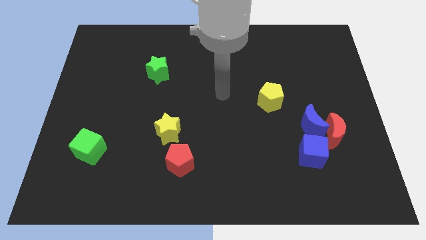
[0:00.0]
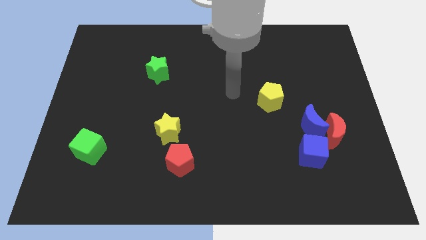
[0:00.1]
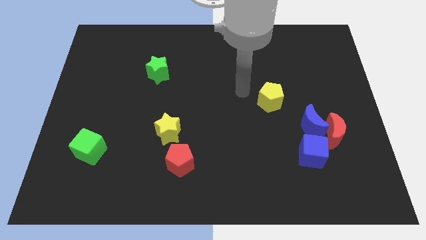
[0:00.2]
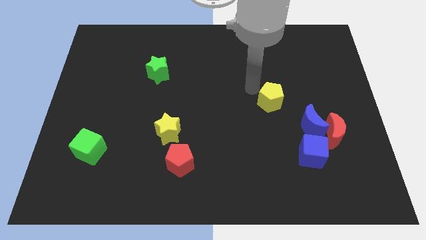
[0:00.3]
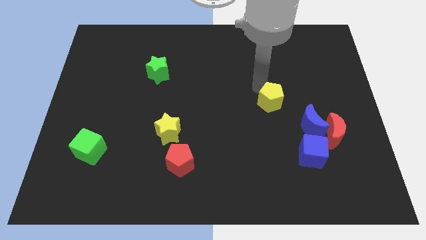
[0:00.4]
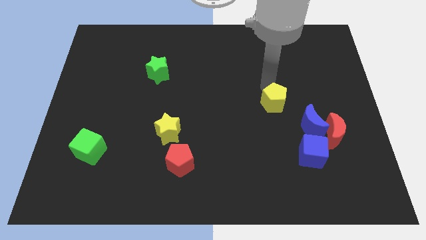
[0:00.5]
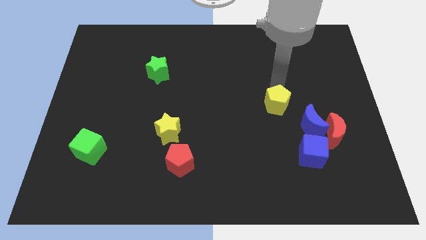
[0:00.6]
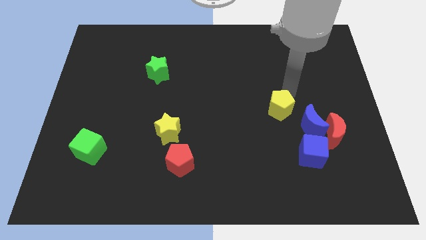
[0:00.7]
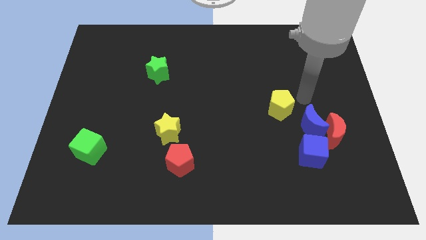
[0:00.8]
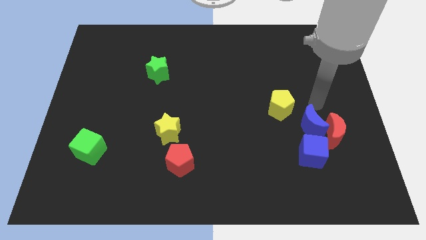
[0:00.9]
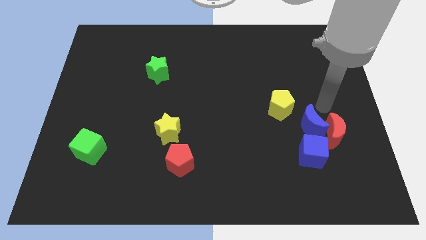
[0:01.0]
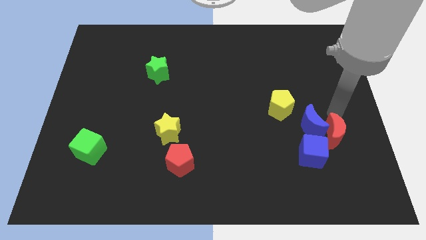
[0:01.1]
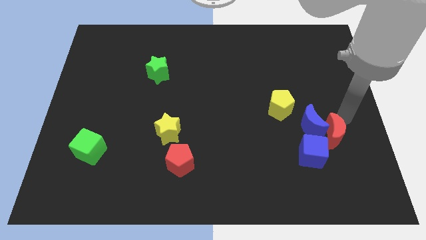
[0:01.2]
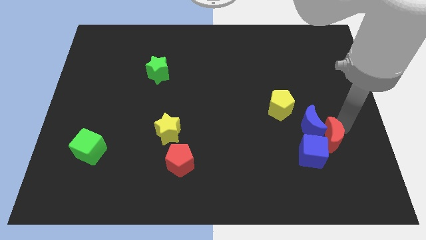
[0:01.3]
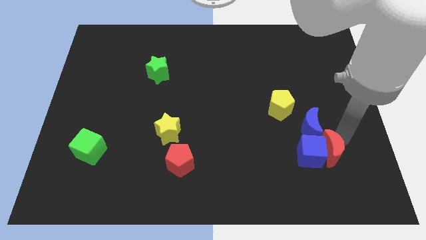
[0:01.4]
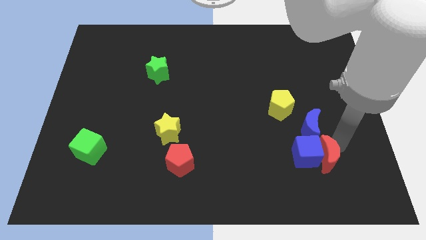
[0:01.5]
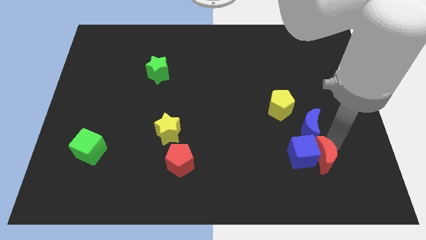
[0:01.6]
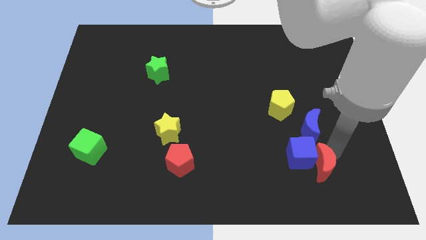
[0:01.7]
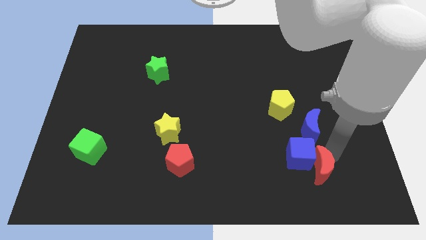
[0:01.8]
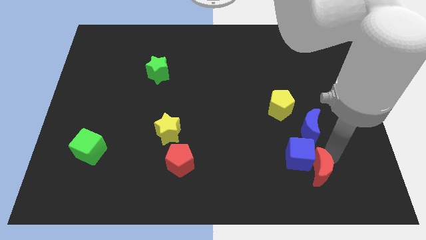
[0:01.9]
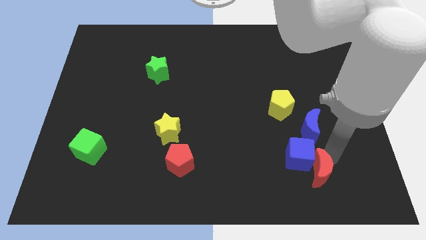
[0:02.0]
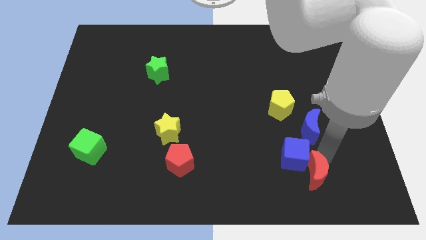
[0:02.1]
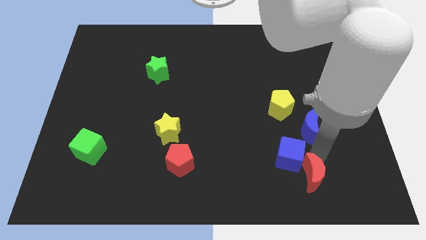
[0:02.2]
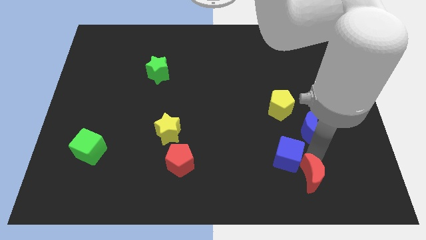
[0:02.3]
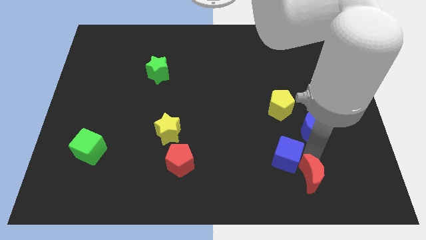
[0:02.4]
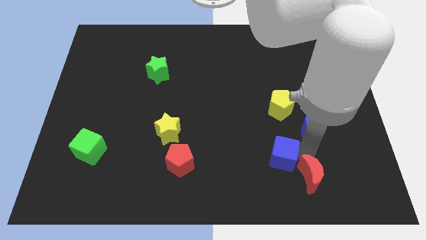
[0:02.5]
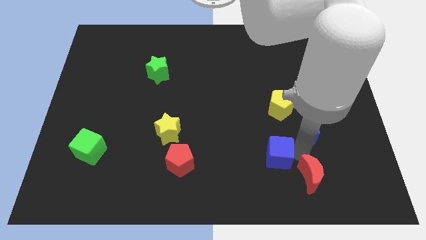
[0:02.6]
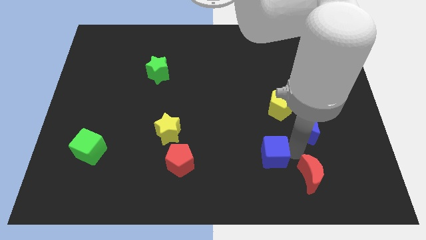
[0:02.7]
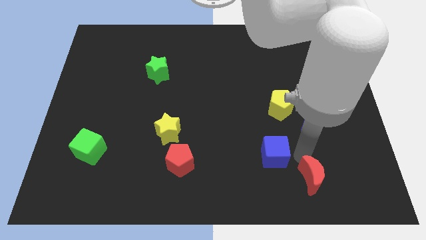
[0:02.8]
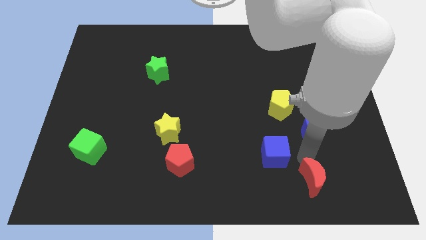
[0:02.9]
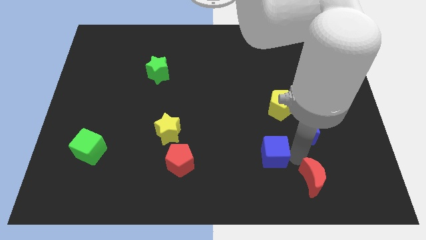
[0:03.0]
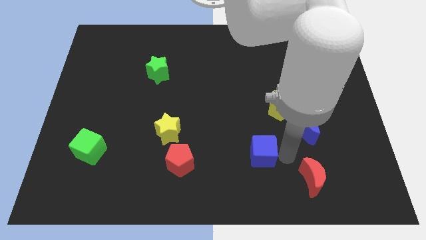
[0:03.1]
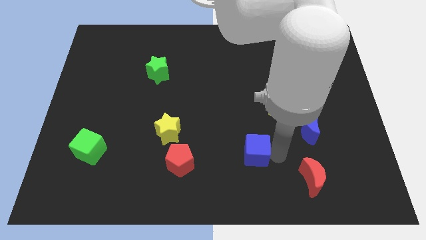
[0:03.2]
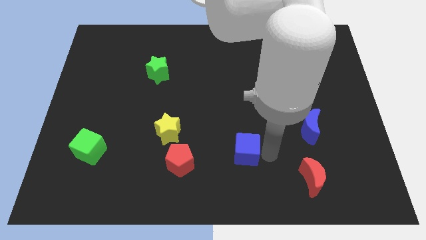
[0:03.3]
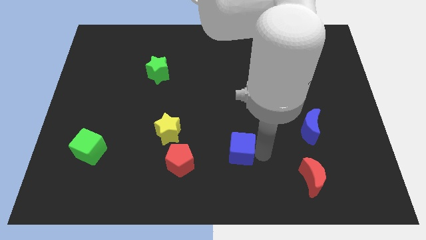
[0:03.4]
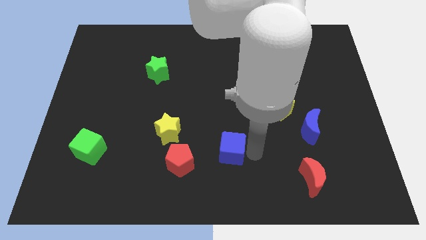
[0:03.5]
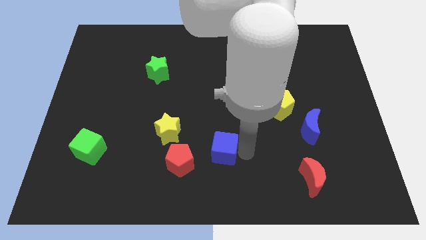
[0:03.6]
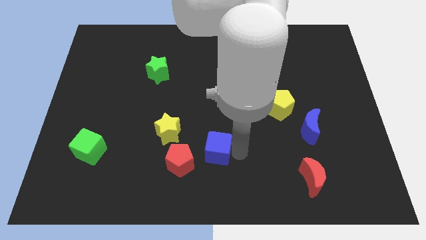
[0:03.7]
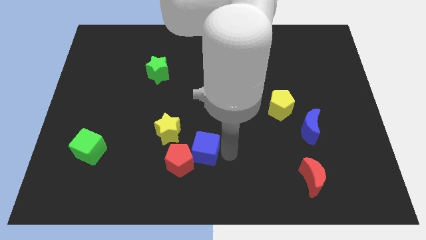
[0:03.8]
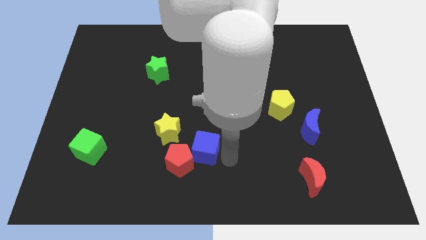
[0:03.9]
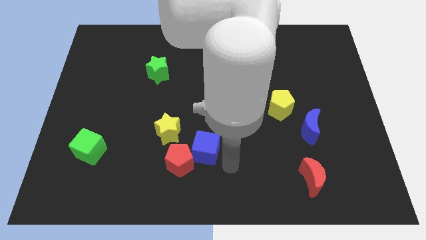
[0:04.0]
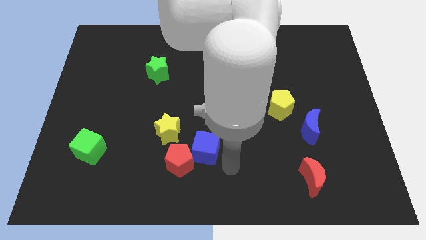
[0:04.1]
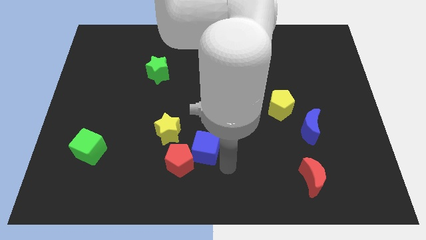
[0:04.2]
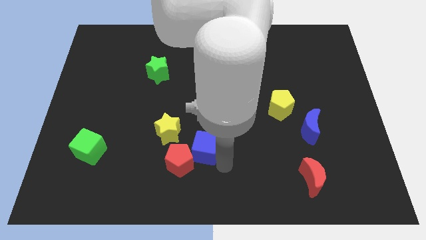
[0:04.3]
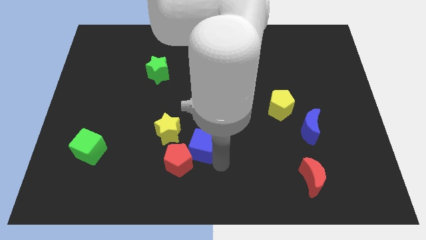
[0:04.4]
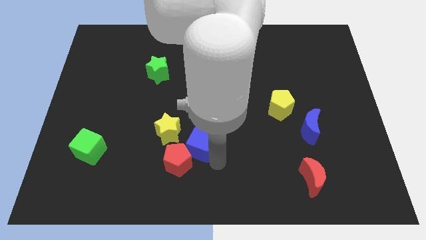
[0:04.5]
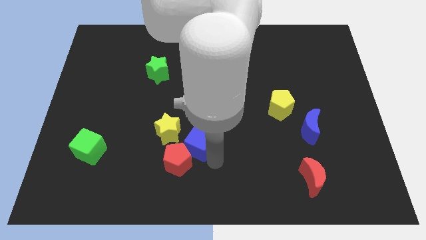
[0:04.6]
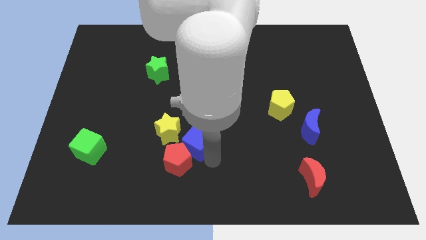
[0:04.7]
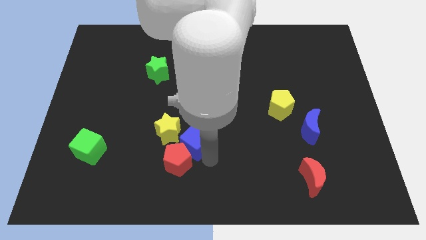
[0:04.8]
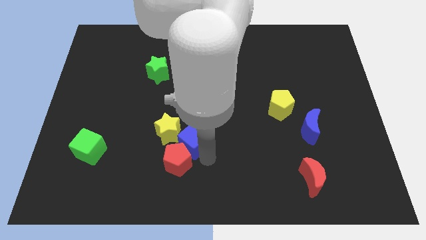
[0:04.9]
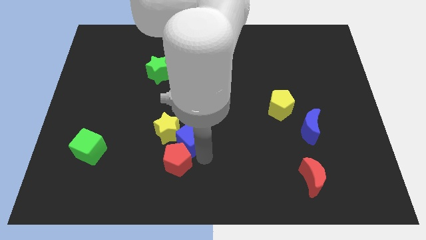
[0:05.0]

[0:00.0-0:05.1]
move the blue cube to the yellow star

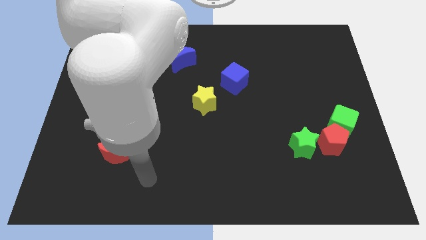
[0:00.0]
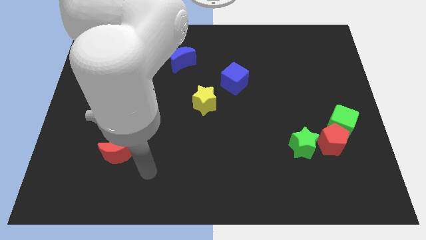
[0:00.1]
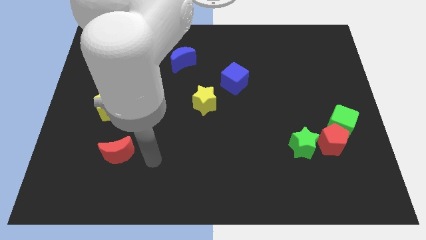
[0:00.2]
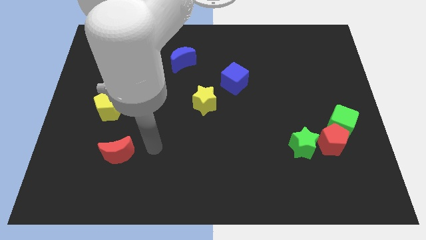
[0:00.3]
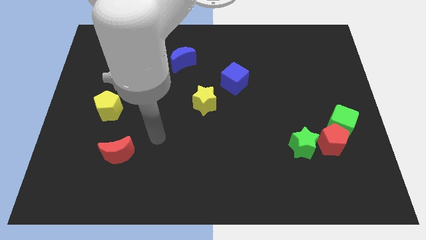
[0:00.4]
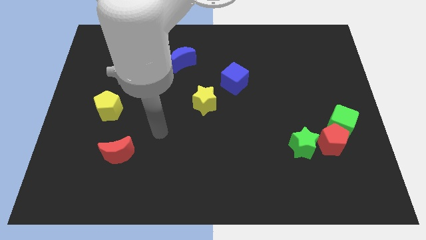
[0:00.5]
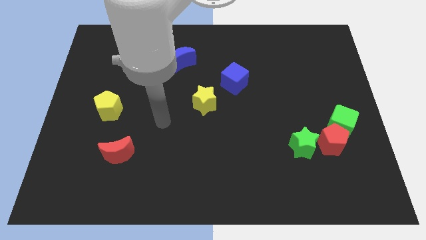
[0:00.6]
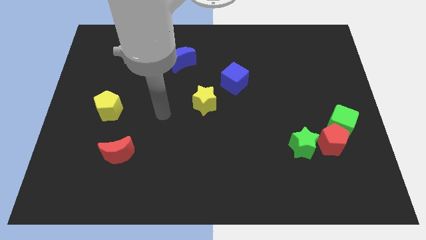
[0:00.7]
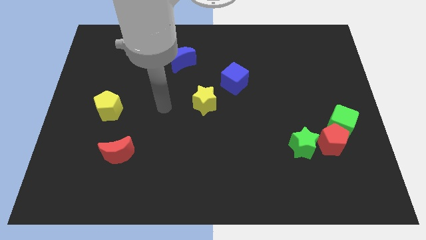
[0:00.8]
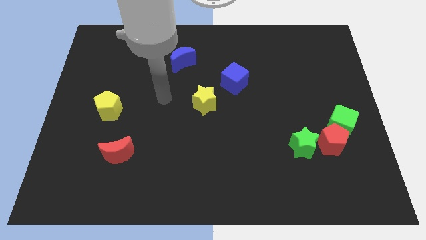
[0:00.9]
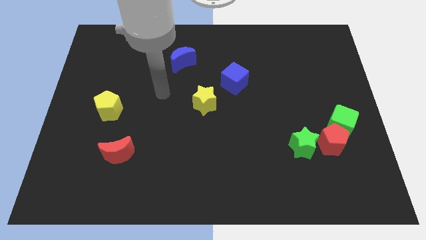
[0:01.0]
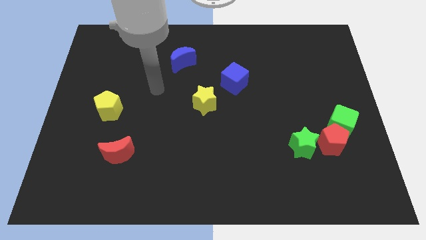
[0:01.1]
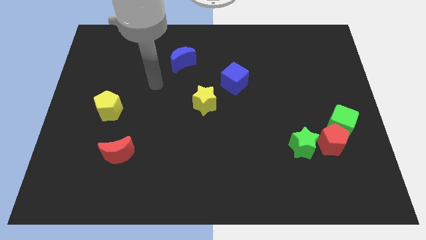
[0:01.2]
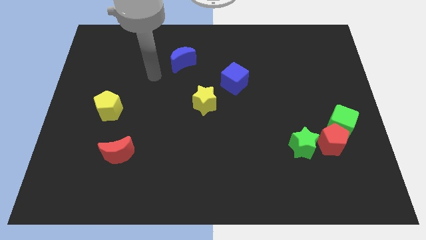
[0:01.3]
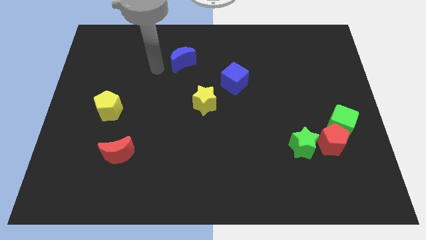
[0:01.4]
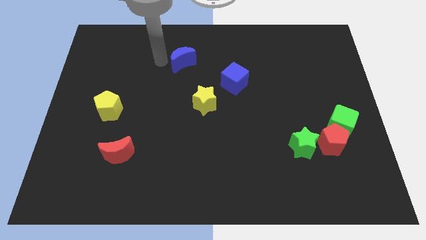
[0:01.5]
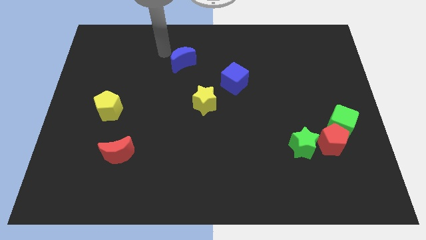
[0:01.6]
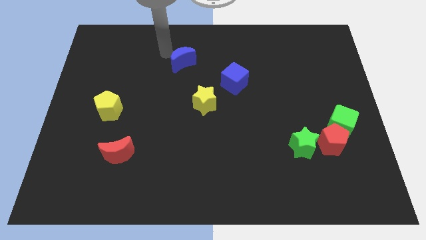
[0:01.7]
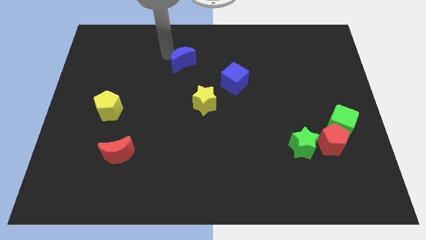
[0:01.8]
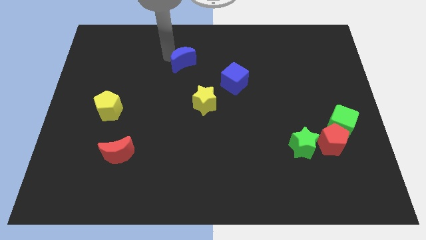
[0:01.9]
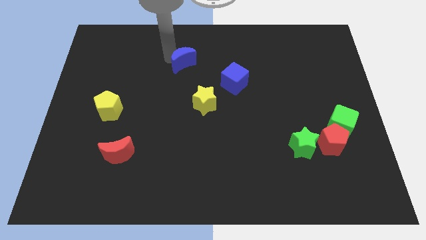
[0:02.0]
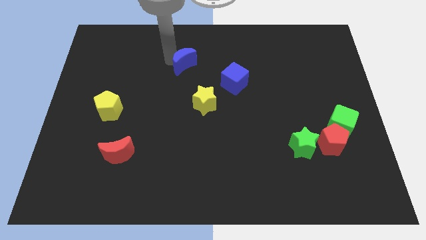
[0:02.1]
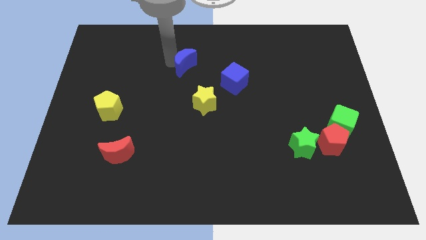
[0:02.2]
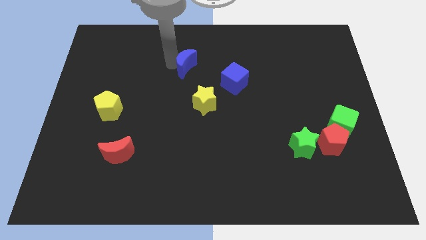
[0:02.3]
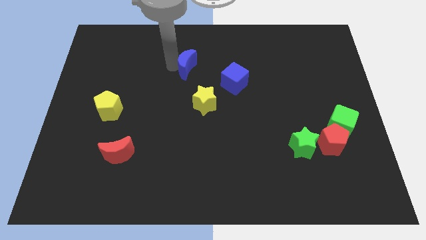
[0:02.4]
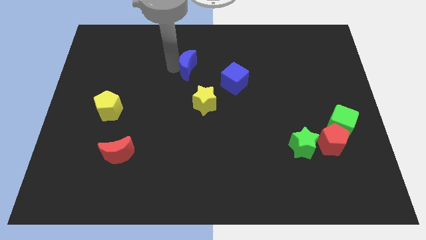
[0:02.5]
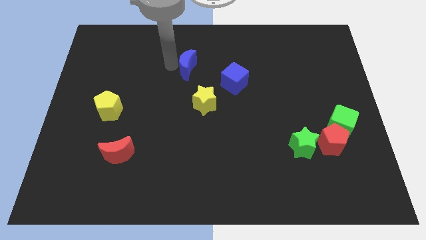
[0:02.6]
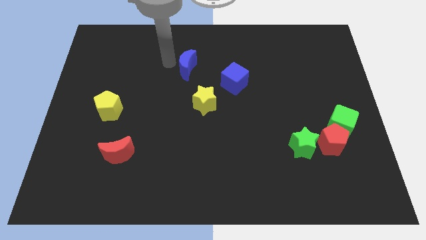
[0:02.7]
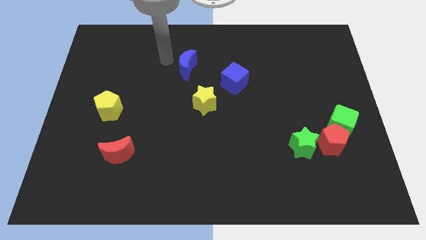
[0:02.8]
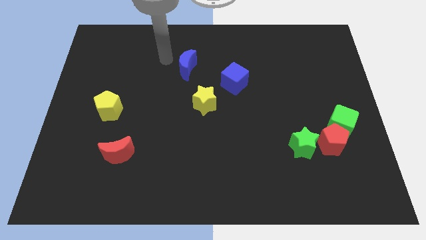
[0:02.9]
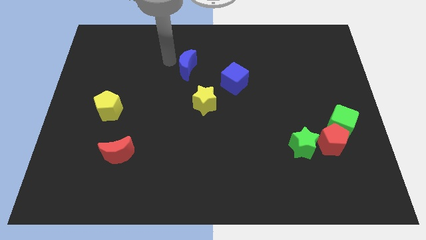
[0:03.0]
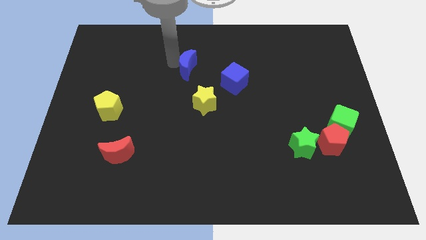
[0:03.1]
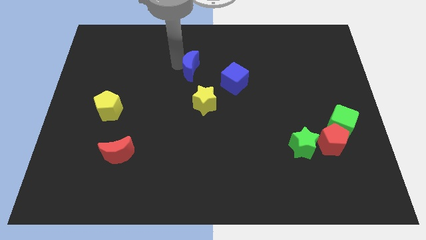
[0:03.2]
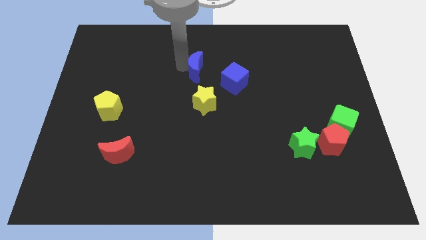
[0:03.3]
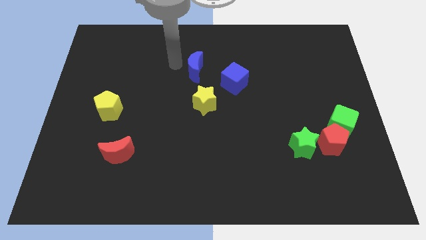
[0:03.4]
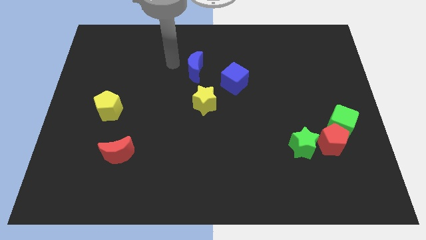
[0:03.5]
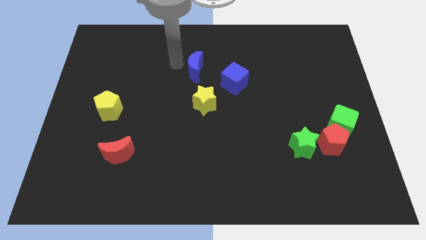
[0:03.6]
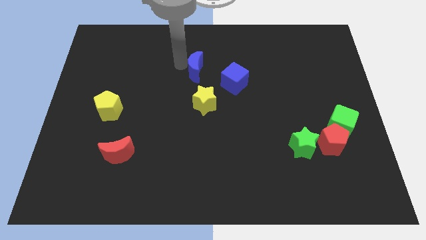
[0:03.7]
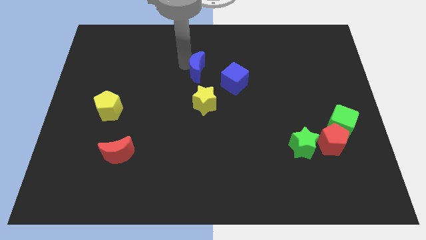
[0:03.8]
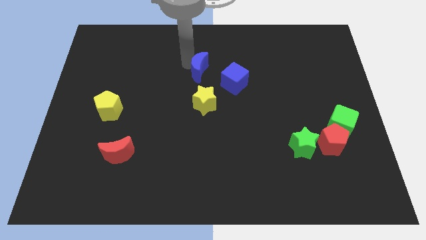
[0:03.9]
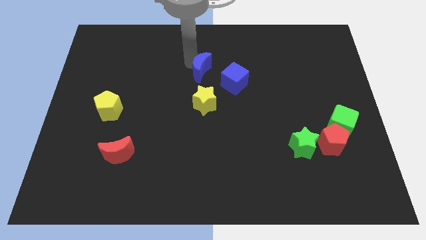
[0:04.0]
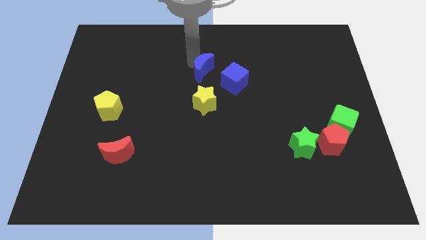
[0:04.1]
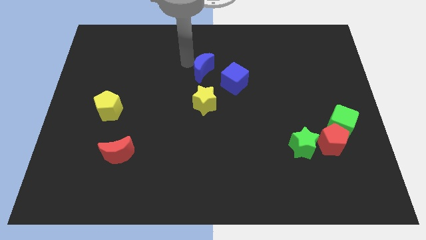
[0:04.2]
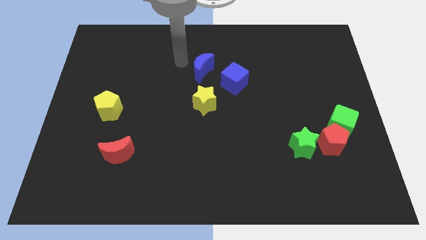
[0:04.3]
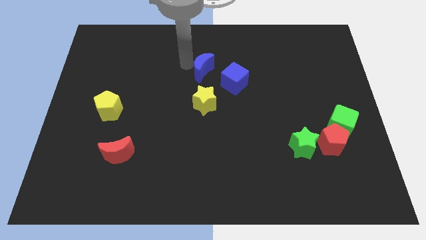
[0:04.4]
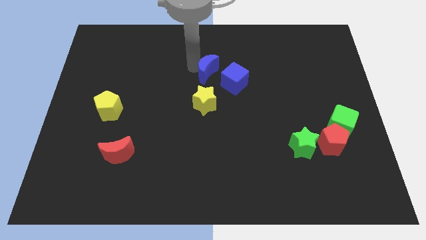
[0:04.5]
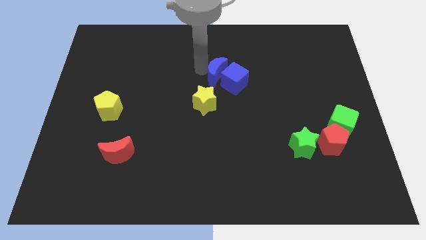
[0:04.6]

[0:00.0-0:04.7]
push the blue moon towards the blue cube
